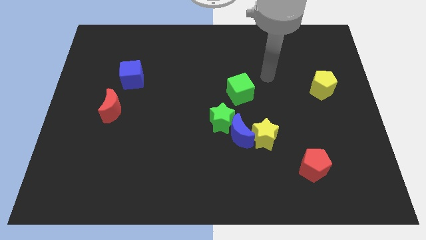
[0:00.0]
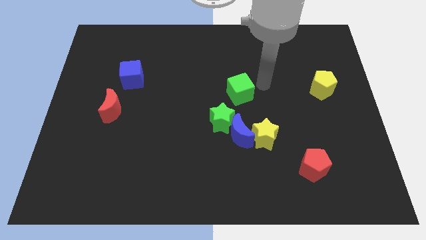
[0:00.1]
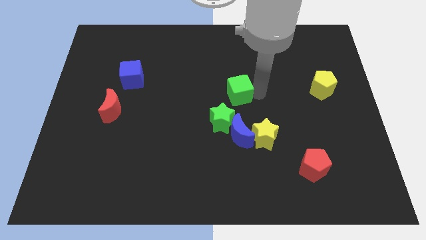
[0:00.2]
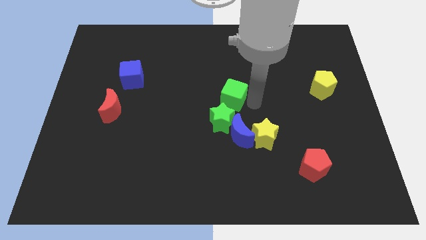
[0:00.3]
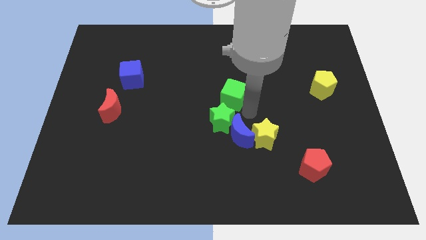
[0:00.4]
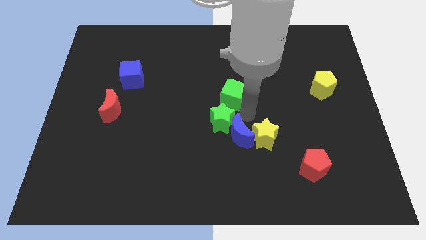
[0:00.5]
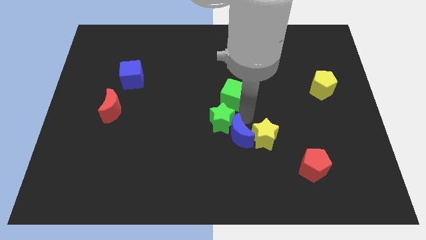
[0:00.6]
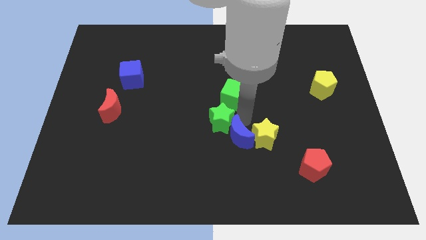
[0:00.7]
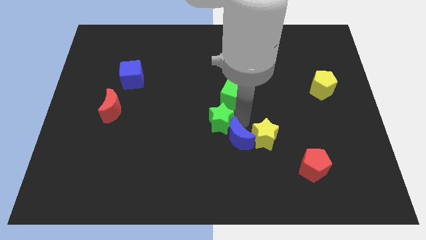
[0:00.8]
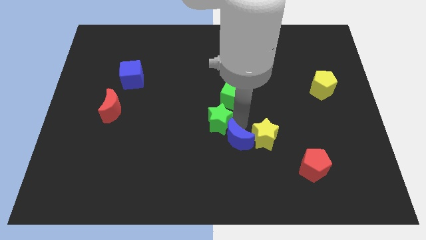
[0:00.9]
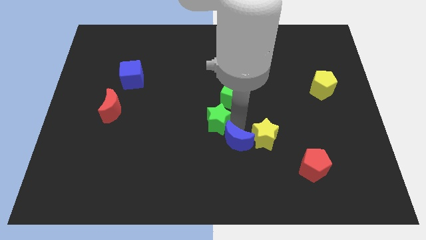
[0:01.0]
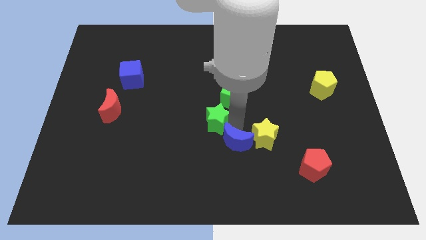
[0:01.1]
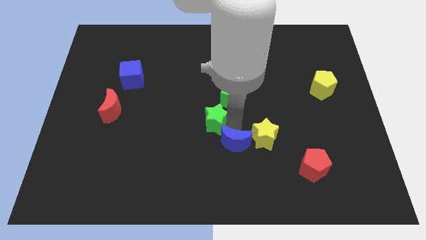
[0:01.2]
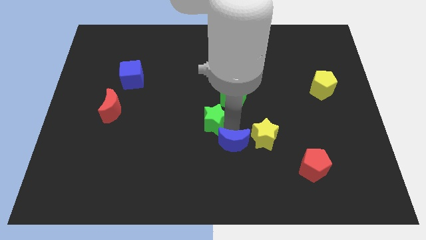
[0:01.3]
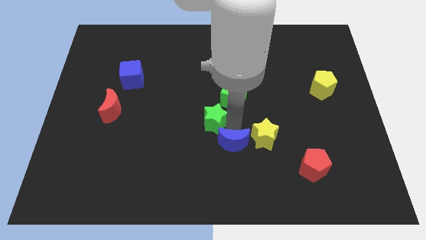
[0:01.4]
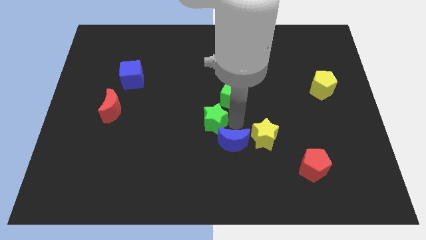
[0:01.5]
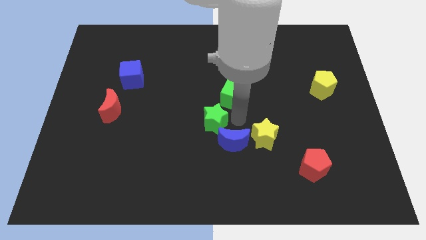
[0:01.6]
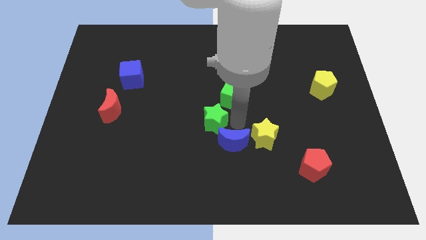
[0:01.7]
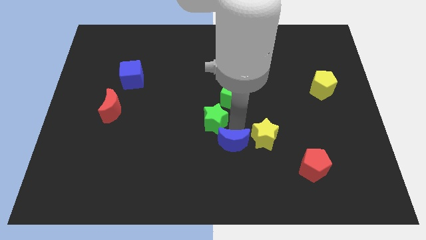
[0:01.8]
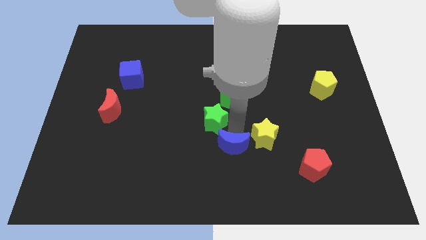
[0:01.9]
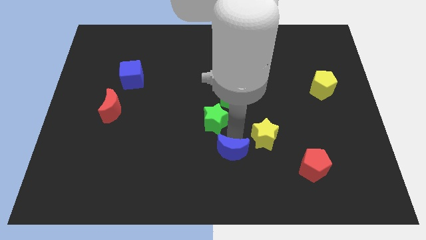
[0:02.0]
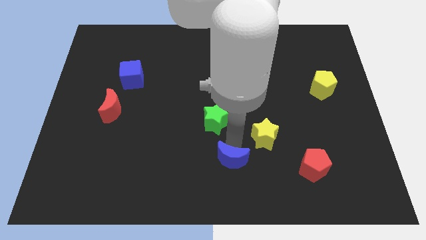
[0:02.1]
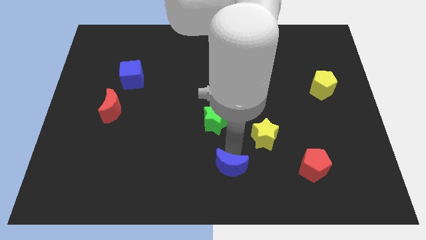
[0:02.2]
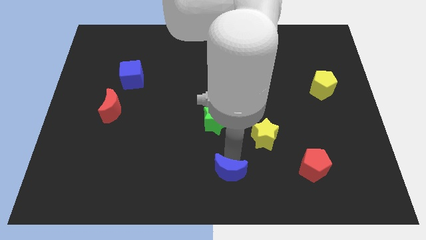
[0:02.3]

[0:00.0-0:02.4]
pull the blue moon apart from the yellow star and green star

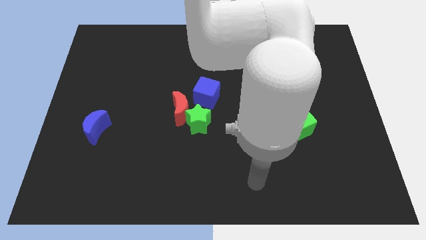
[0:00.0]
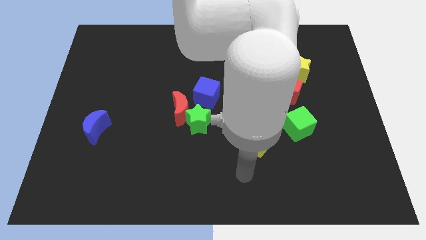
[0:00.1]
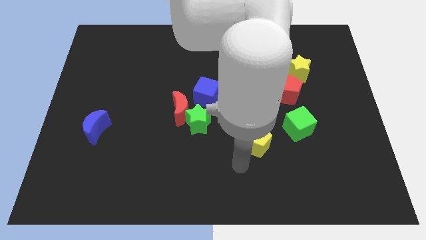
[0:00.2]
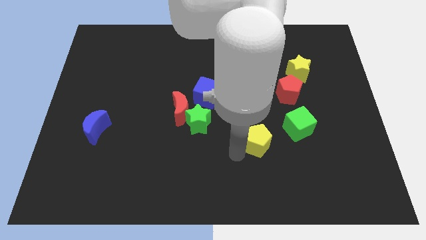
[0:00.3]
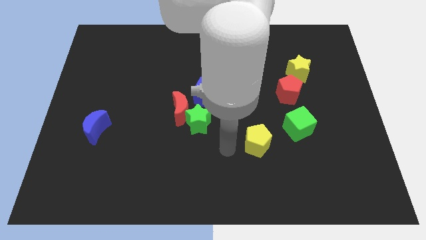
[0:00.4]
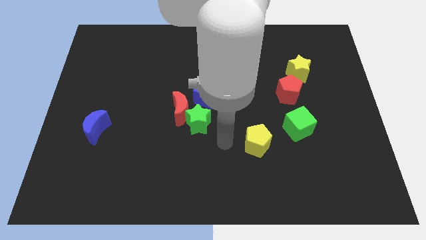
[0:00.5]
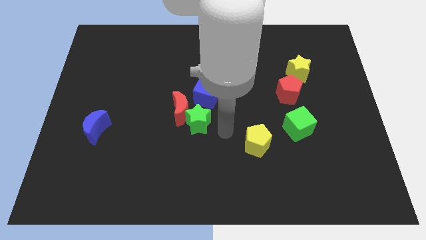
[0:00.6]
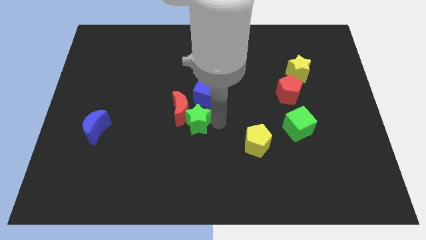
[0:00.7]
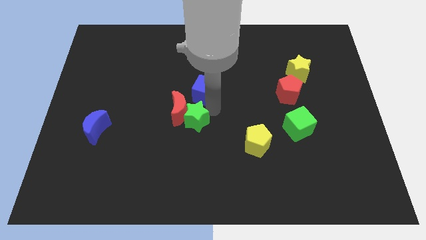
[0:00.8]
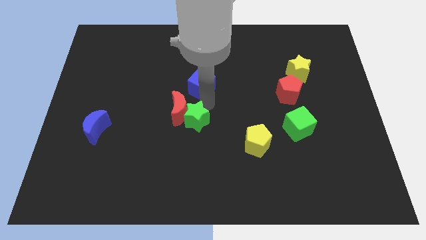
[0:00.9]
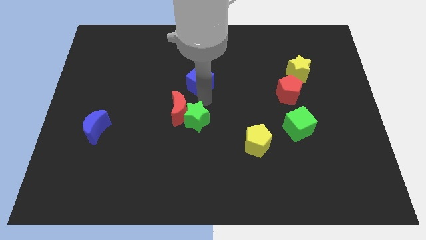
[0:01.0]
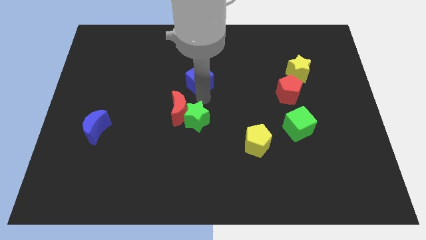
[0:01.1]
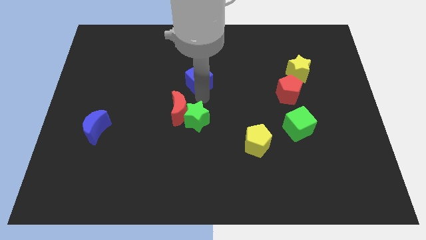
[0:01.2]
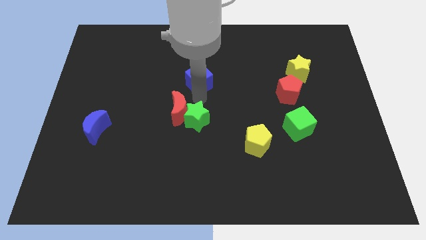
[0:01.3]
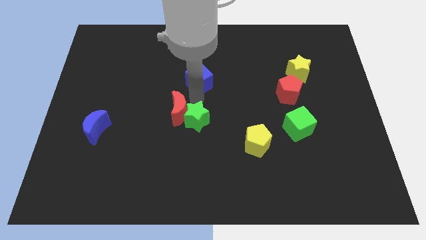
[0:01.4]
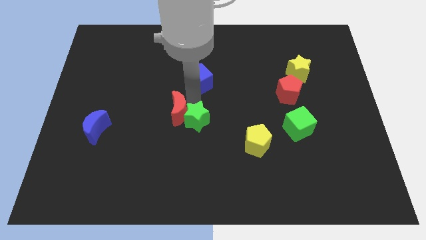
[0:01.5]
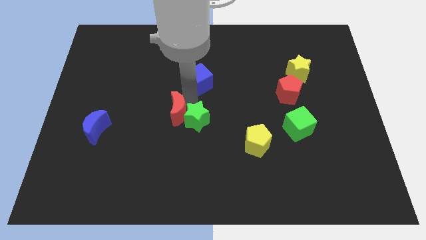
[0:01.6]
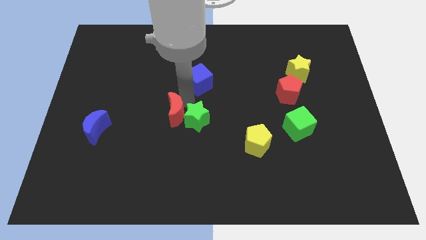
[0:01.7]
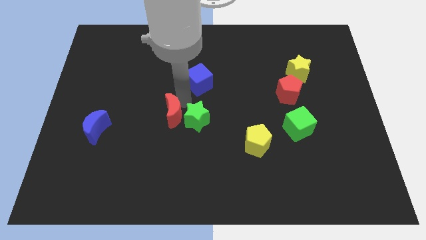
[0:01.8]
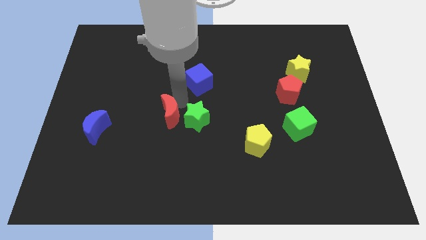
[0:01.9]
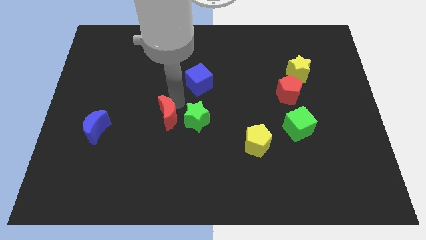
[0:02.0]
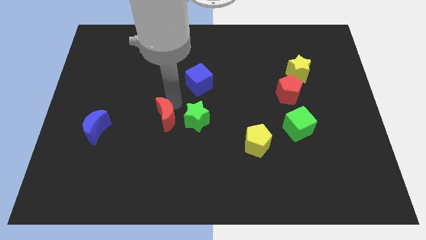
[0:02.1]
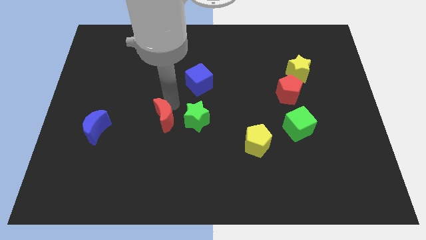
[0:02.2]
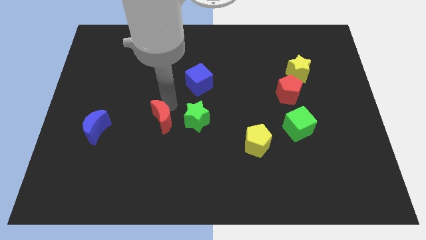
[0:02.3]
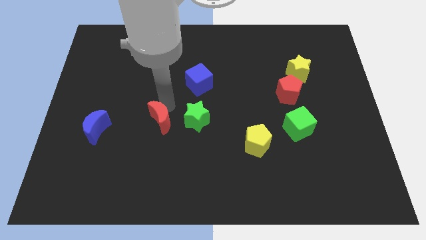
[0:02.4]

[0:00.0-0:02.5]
move the red moon away from the green star and blue cube

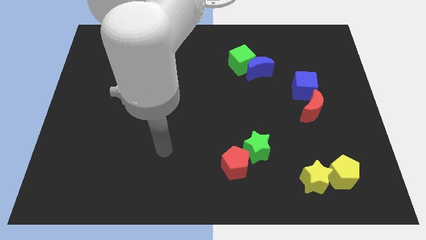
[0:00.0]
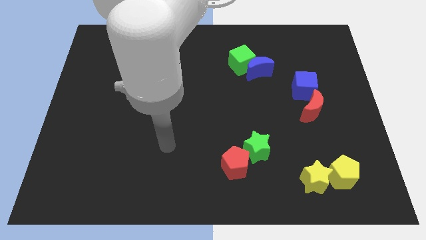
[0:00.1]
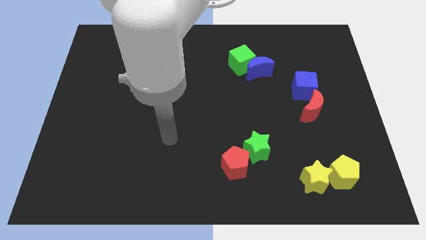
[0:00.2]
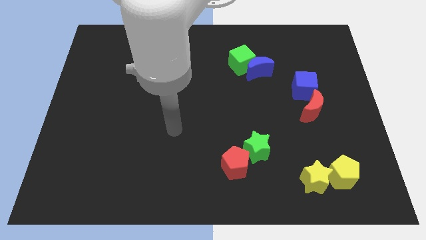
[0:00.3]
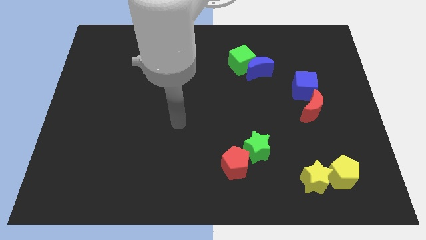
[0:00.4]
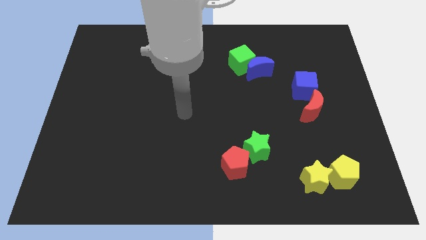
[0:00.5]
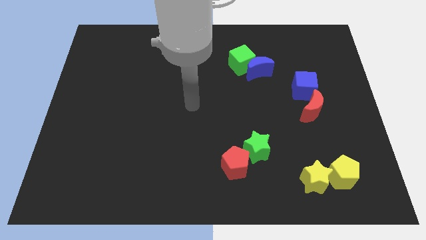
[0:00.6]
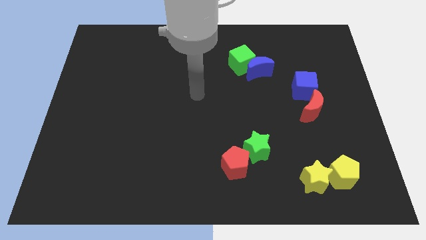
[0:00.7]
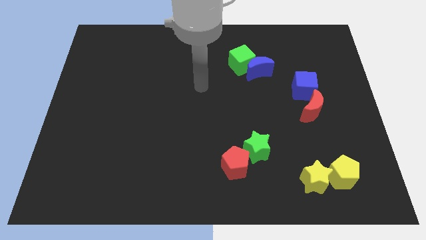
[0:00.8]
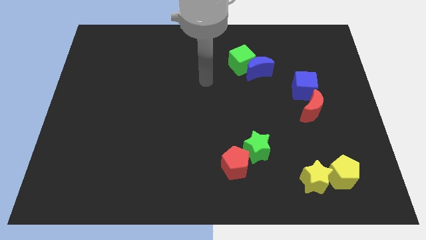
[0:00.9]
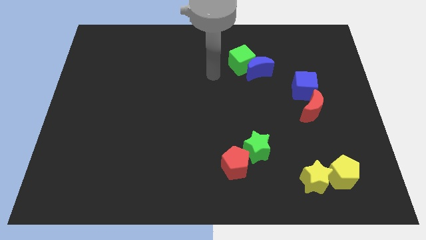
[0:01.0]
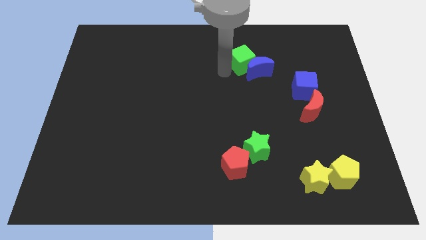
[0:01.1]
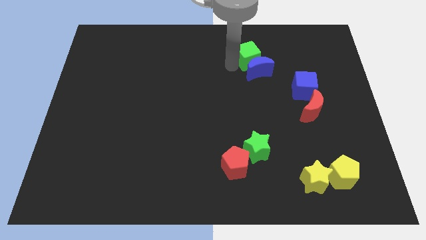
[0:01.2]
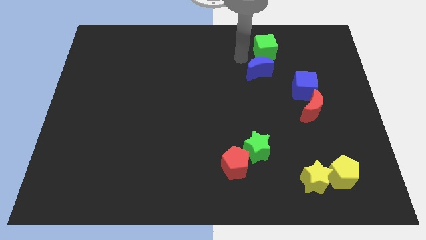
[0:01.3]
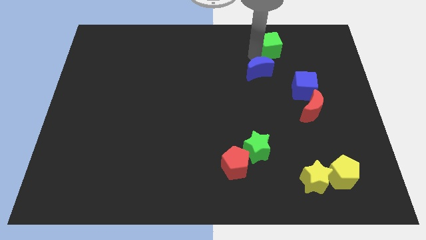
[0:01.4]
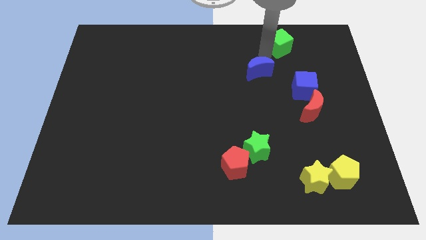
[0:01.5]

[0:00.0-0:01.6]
separate the blue moon from the green cube

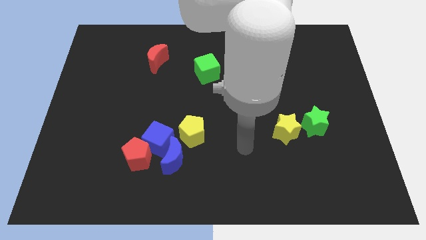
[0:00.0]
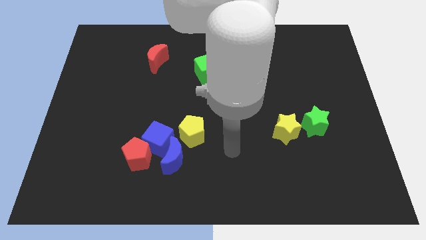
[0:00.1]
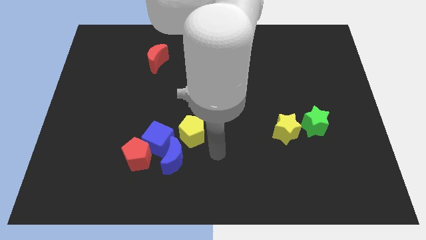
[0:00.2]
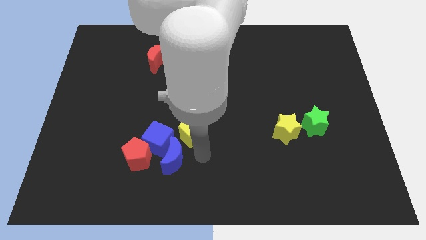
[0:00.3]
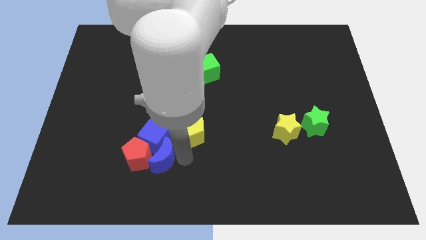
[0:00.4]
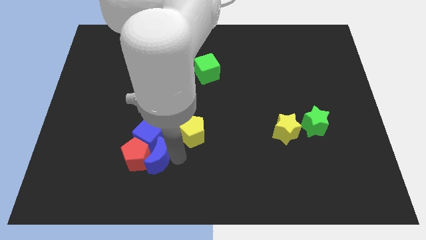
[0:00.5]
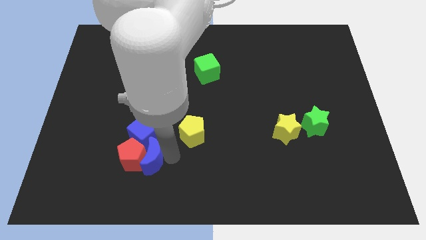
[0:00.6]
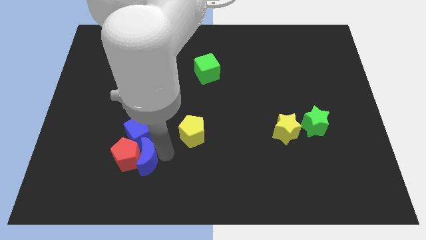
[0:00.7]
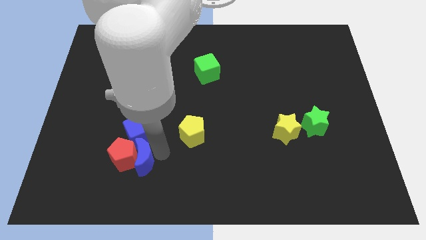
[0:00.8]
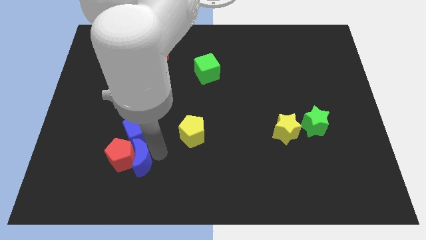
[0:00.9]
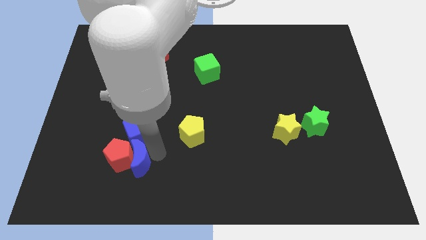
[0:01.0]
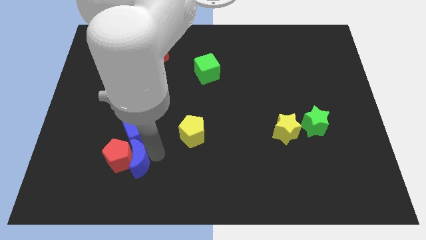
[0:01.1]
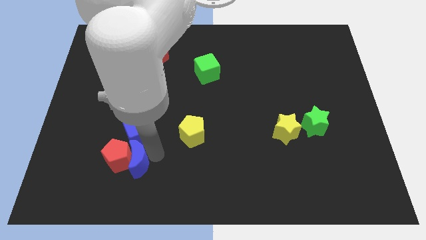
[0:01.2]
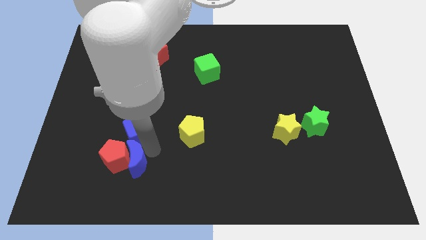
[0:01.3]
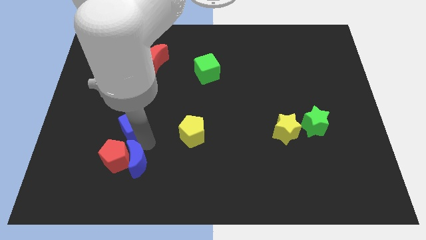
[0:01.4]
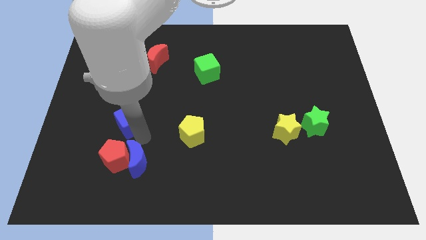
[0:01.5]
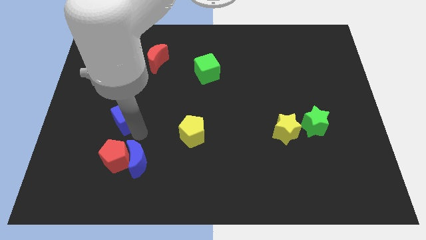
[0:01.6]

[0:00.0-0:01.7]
pull the blue cube apart from the group of blocks

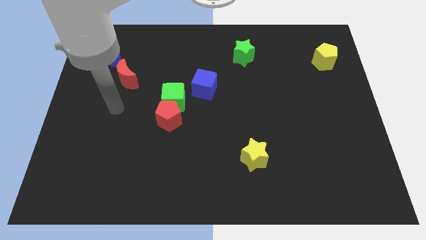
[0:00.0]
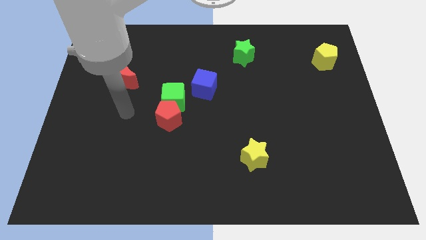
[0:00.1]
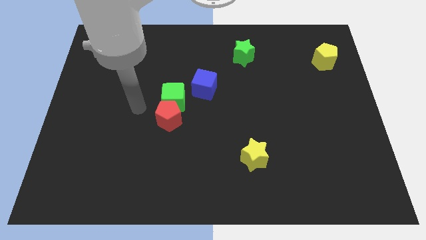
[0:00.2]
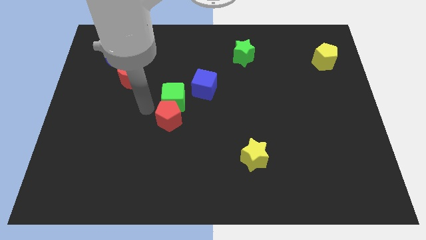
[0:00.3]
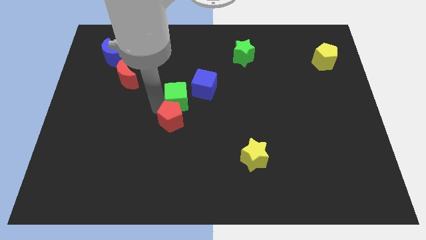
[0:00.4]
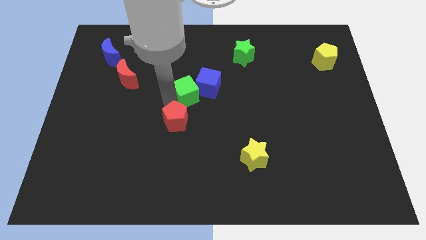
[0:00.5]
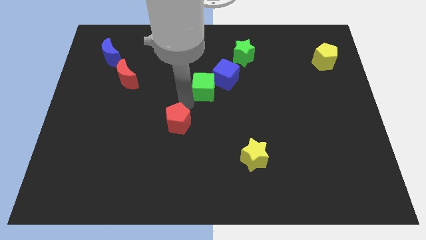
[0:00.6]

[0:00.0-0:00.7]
separate the red pentagon from the green cube

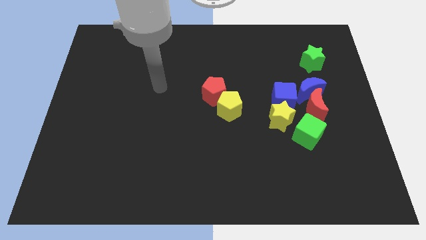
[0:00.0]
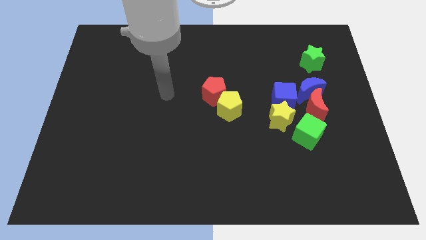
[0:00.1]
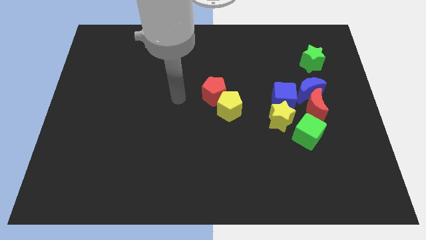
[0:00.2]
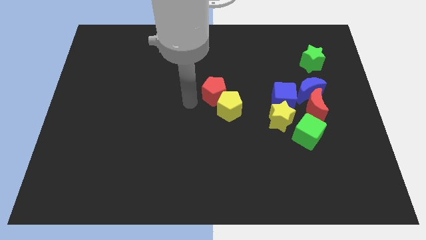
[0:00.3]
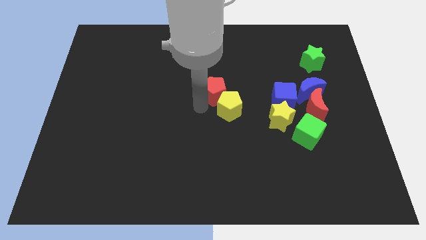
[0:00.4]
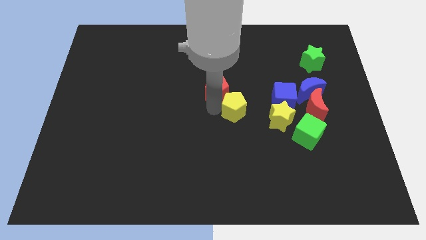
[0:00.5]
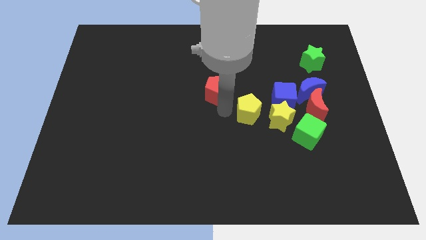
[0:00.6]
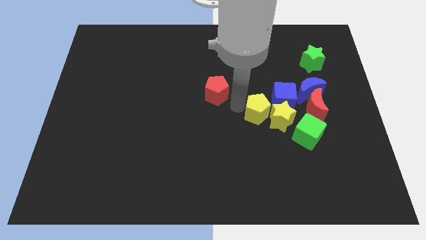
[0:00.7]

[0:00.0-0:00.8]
pull the red pentagon apart from the yellow pentagon
